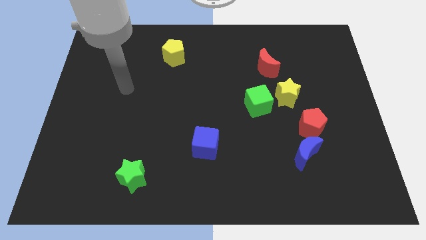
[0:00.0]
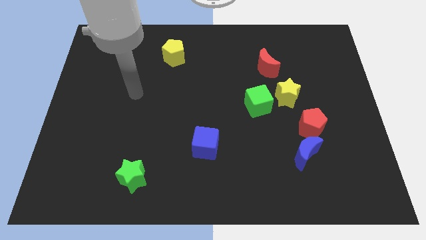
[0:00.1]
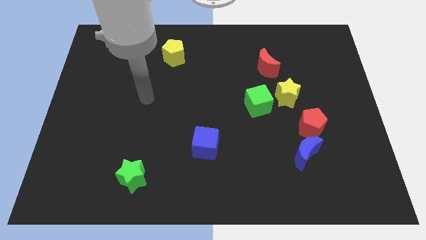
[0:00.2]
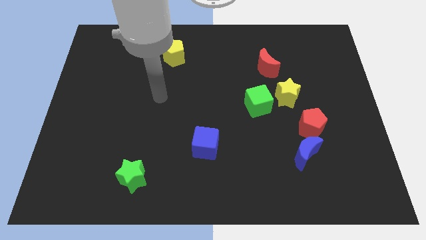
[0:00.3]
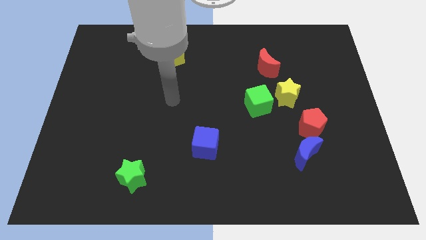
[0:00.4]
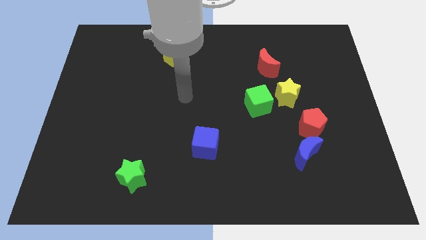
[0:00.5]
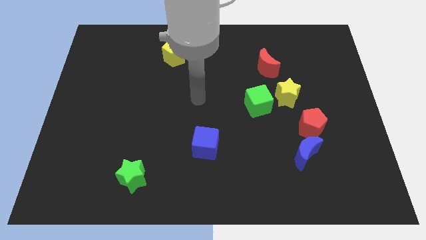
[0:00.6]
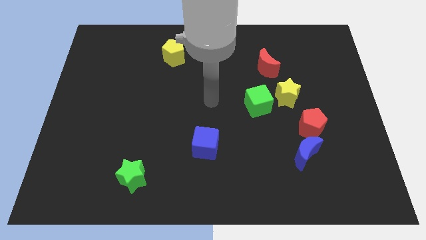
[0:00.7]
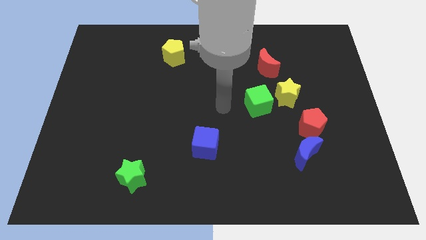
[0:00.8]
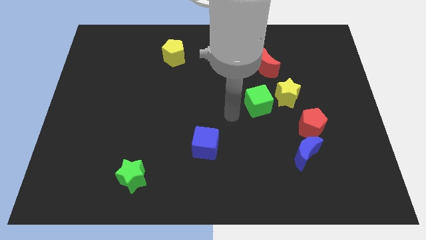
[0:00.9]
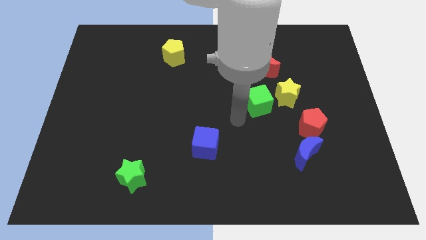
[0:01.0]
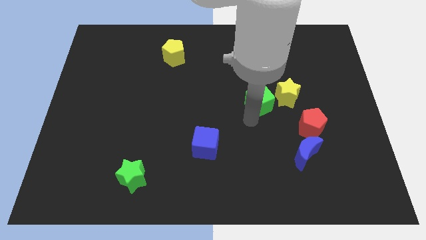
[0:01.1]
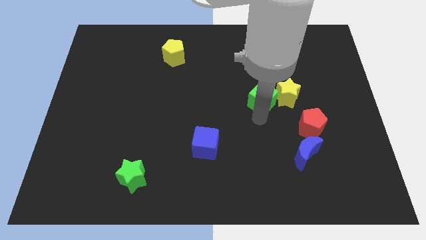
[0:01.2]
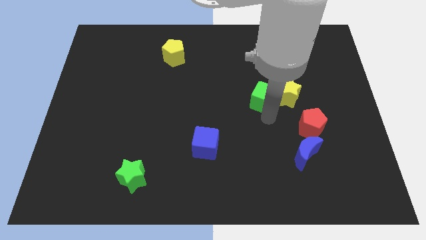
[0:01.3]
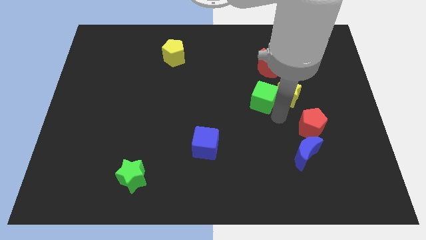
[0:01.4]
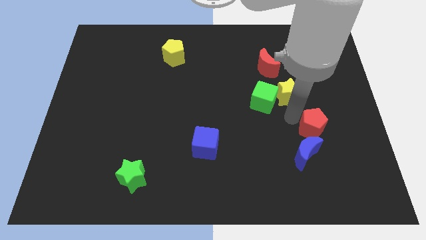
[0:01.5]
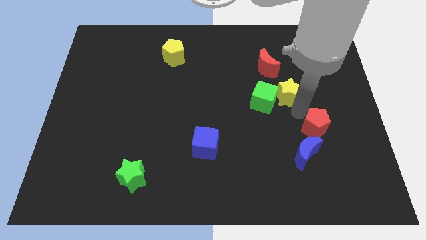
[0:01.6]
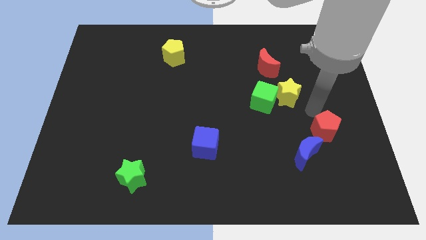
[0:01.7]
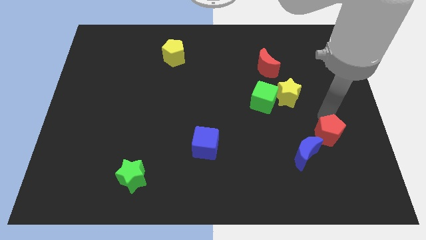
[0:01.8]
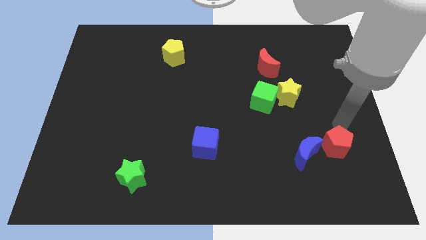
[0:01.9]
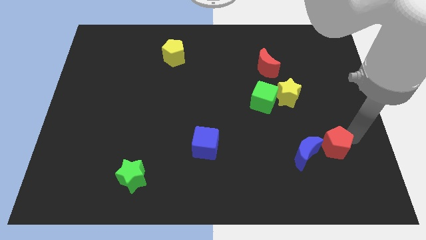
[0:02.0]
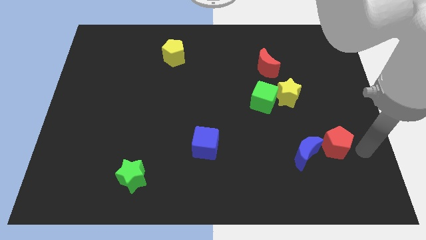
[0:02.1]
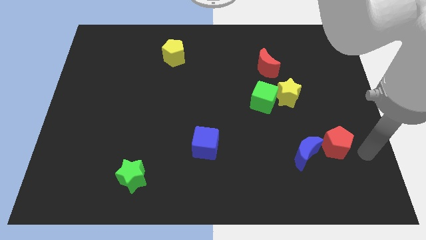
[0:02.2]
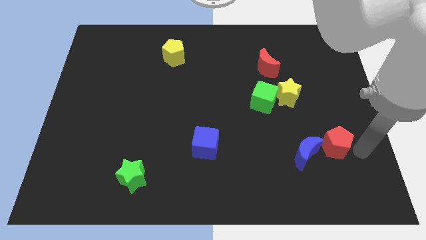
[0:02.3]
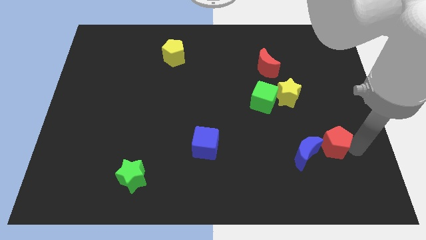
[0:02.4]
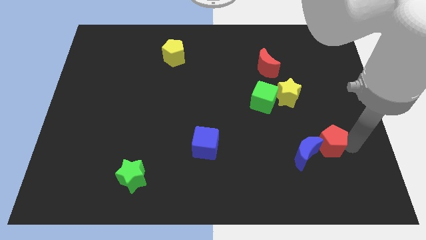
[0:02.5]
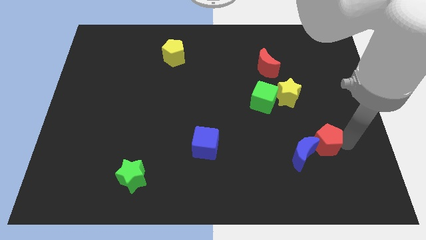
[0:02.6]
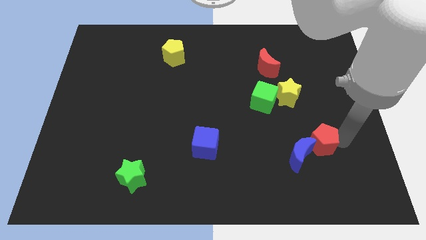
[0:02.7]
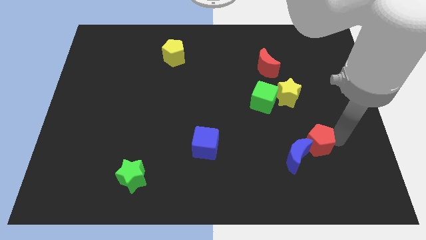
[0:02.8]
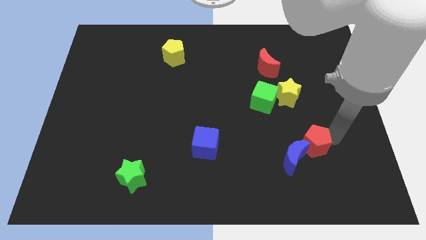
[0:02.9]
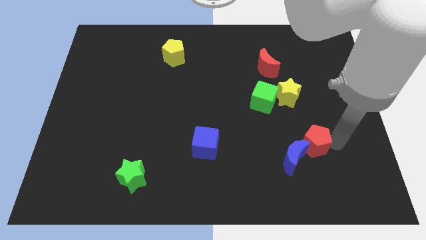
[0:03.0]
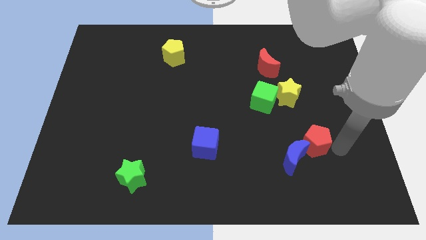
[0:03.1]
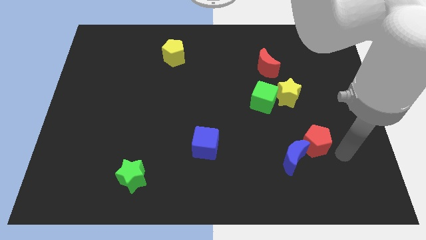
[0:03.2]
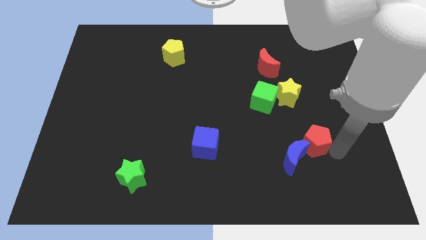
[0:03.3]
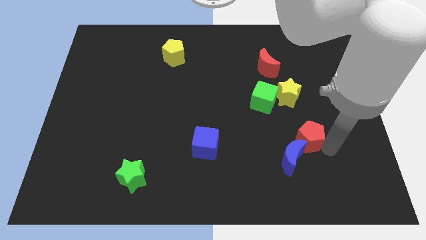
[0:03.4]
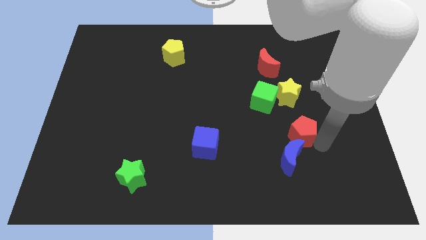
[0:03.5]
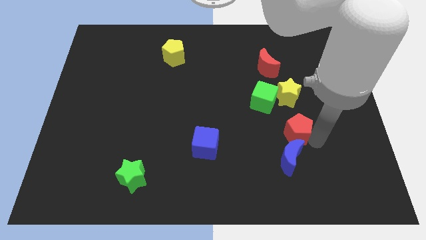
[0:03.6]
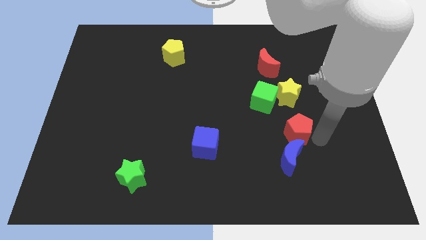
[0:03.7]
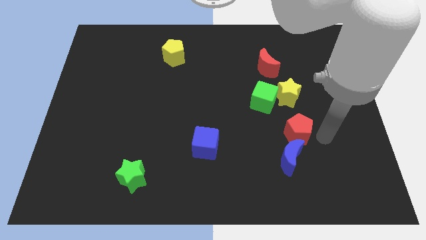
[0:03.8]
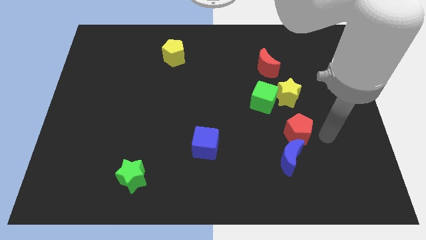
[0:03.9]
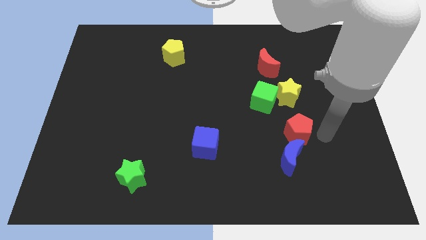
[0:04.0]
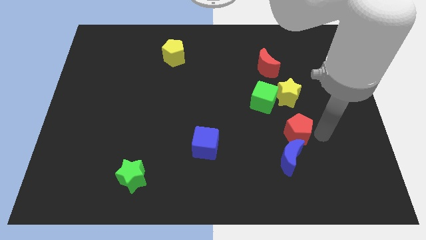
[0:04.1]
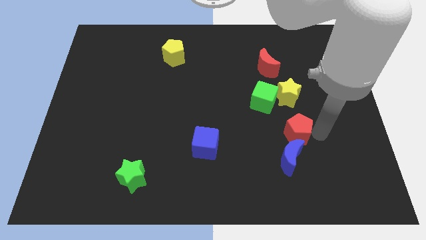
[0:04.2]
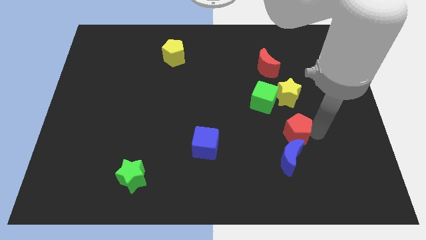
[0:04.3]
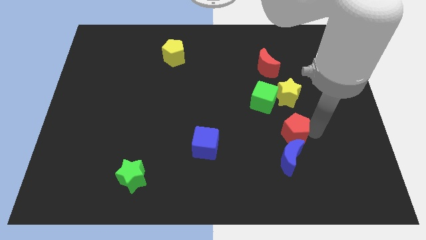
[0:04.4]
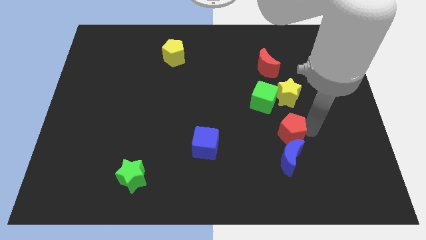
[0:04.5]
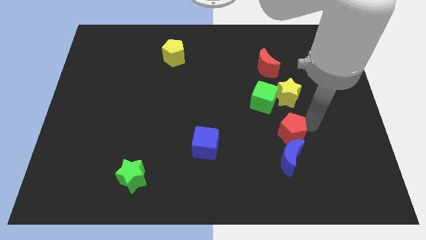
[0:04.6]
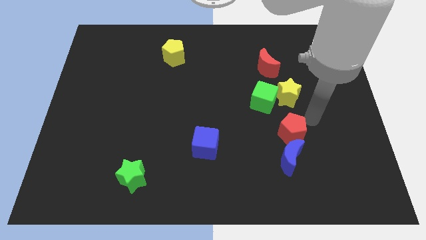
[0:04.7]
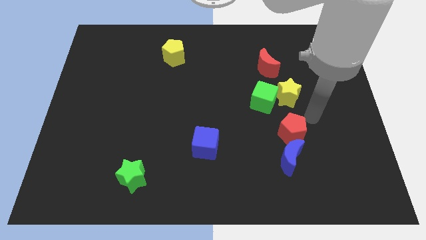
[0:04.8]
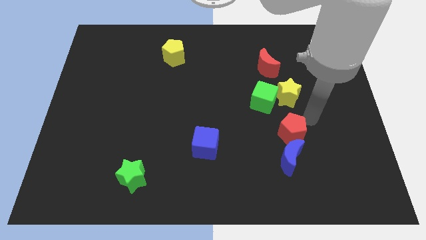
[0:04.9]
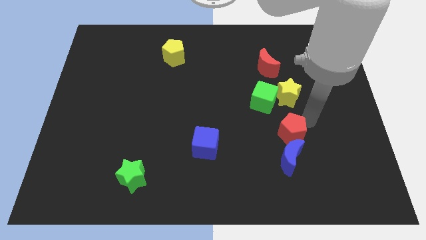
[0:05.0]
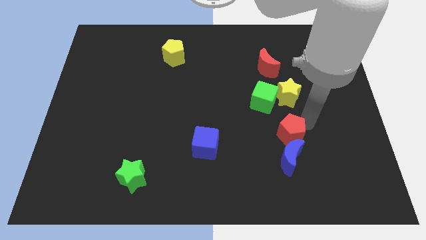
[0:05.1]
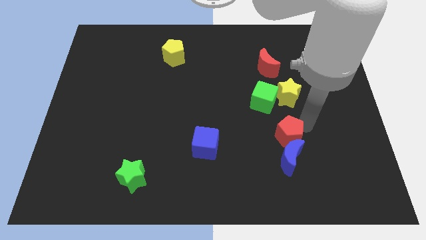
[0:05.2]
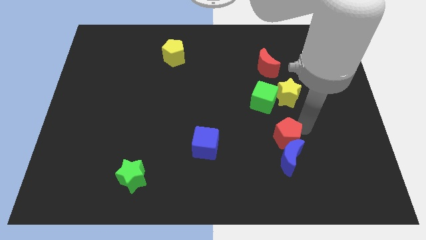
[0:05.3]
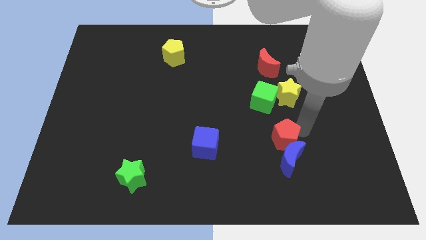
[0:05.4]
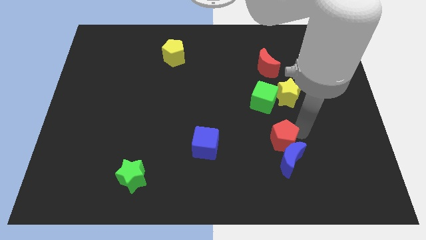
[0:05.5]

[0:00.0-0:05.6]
slide the red pentagon down and left slightly

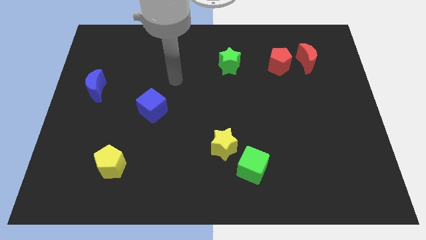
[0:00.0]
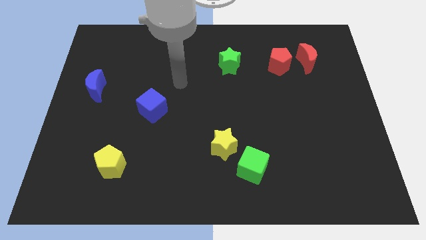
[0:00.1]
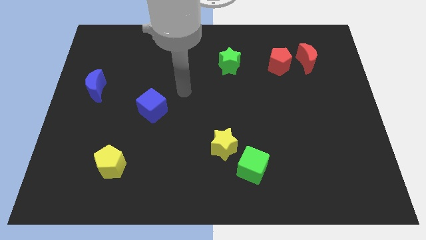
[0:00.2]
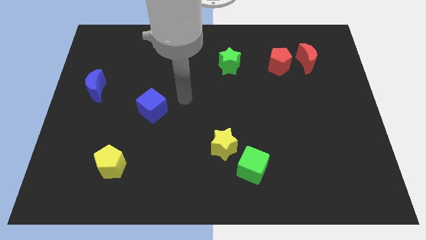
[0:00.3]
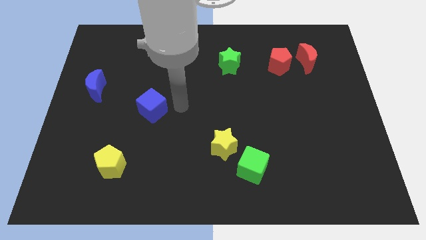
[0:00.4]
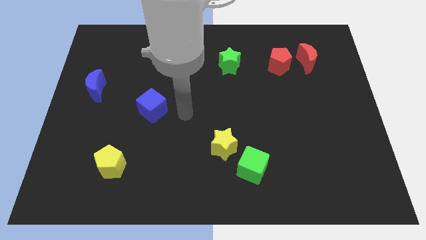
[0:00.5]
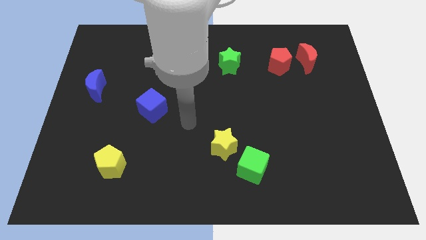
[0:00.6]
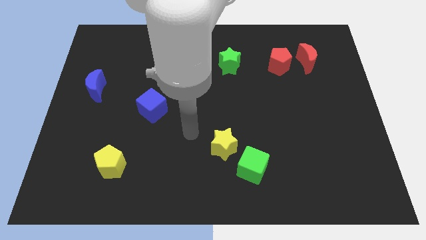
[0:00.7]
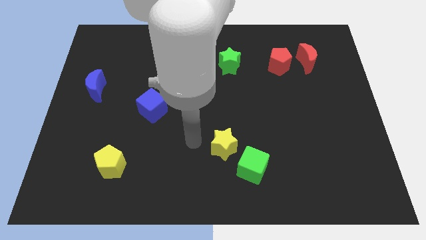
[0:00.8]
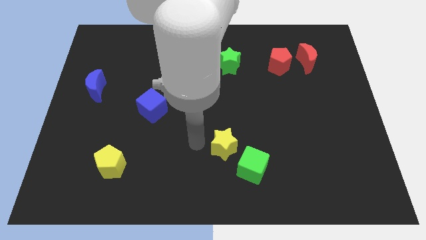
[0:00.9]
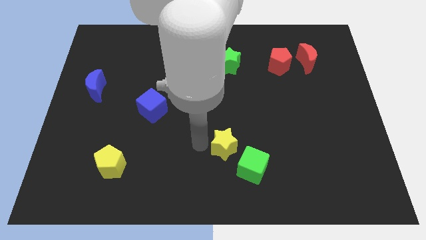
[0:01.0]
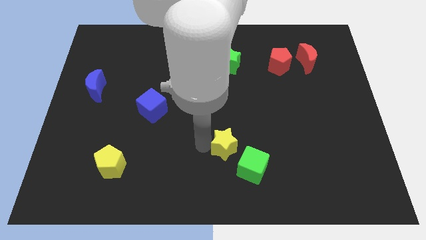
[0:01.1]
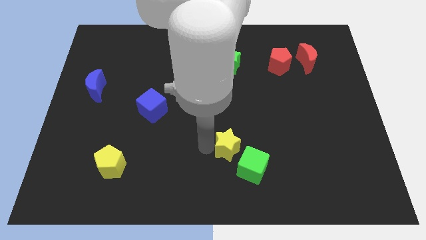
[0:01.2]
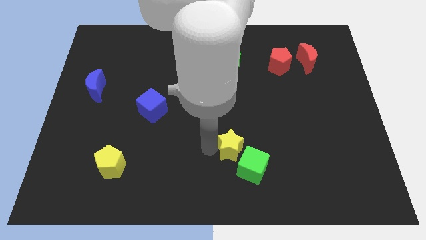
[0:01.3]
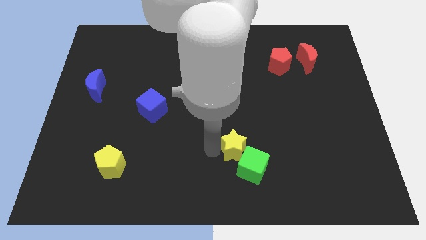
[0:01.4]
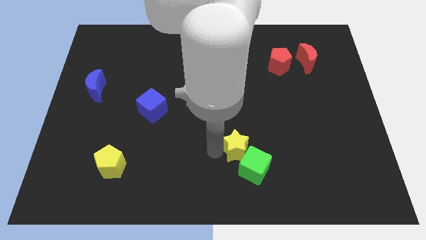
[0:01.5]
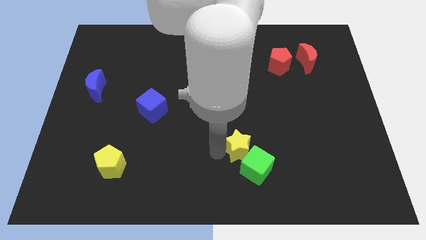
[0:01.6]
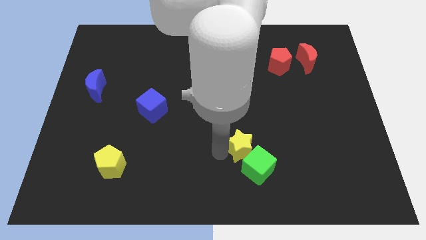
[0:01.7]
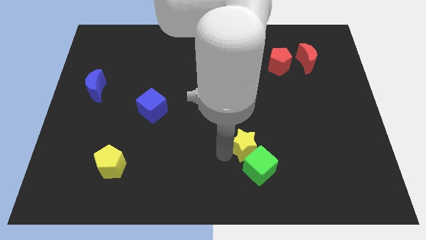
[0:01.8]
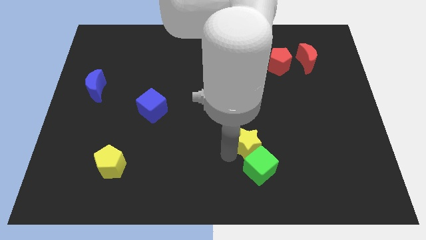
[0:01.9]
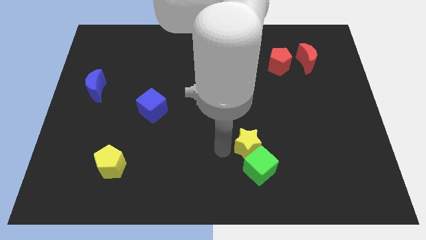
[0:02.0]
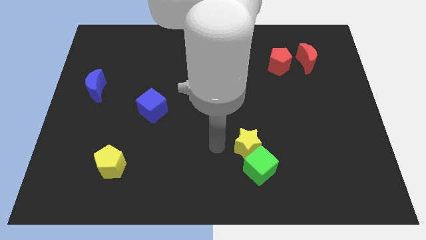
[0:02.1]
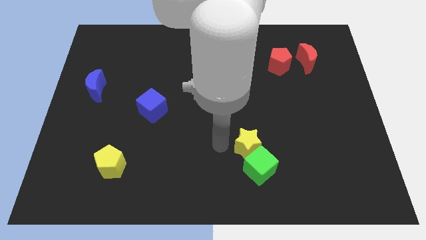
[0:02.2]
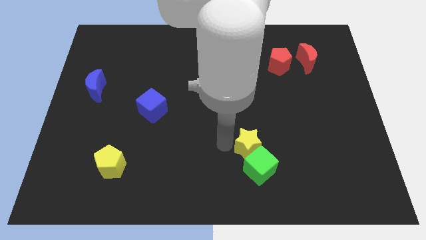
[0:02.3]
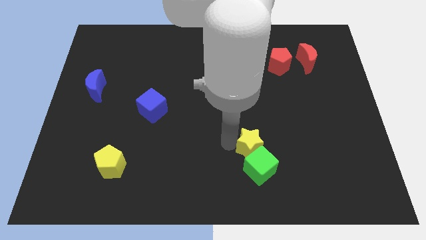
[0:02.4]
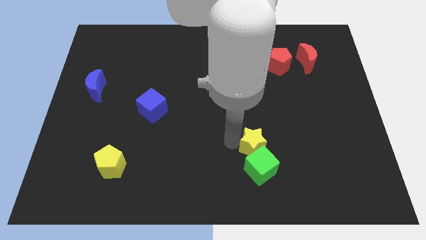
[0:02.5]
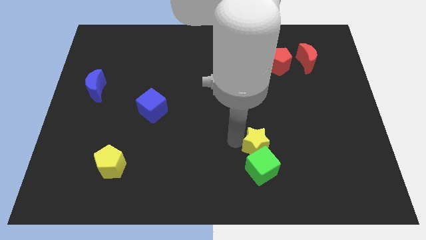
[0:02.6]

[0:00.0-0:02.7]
push the yellow star to the right slightly

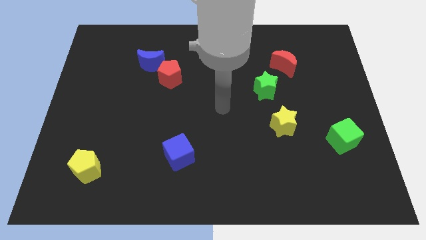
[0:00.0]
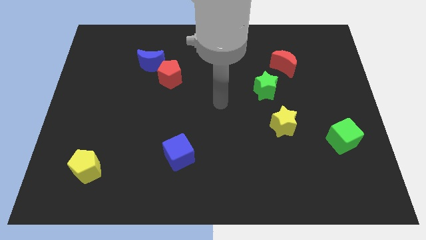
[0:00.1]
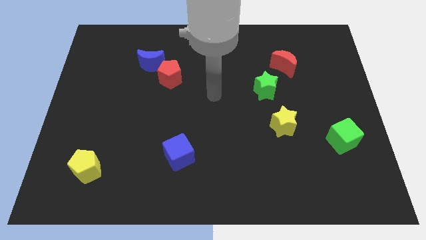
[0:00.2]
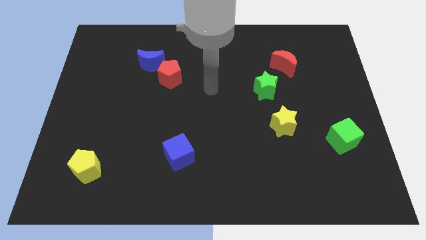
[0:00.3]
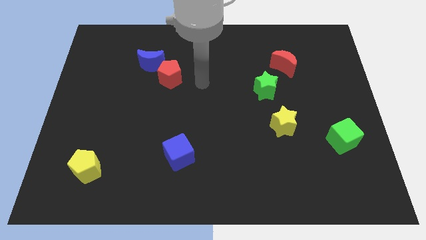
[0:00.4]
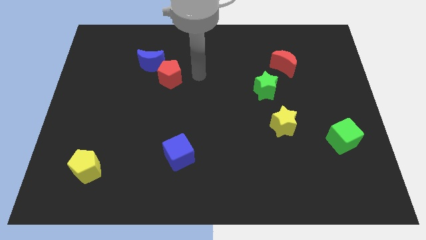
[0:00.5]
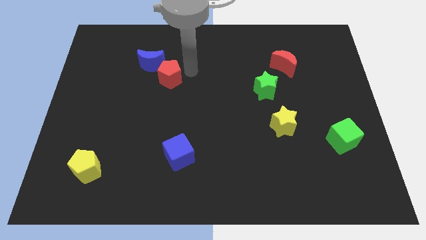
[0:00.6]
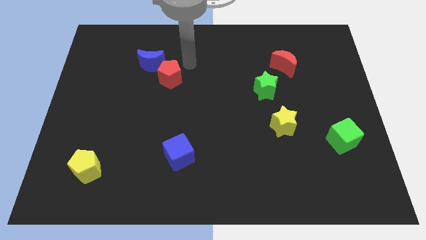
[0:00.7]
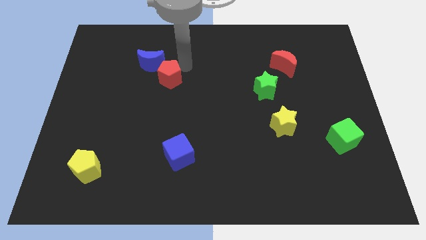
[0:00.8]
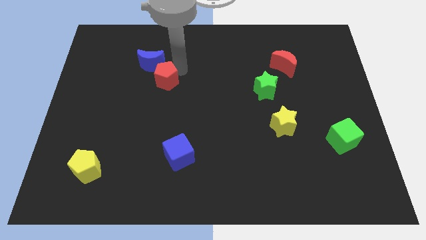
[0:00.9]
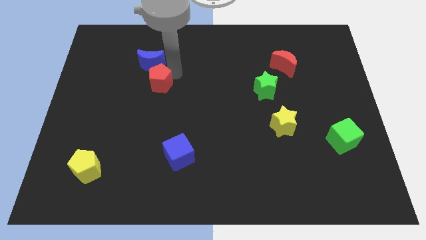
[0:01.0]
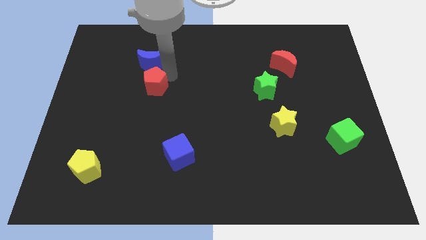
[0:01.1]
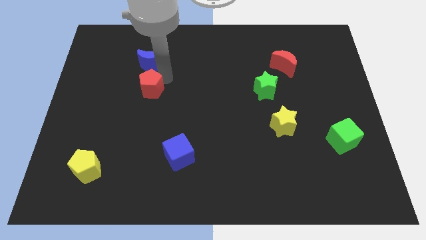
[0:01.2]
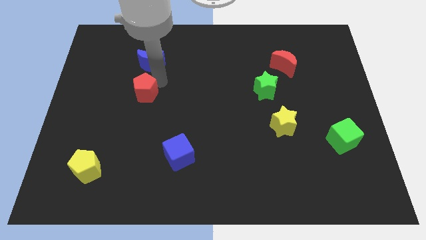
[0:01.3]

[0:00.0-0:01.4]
slightly move the red pentagon downwards and then to the left
